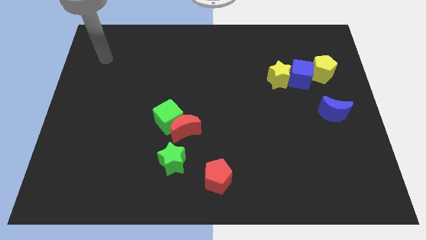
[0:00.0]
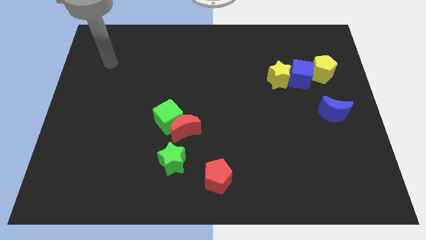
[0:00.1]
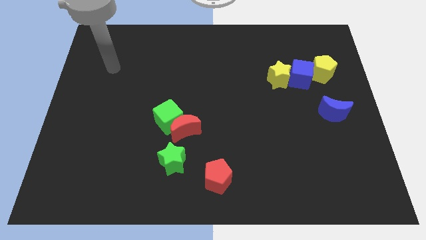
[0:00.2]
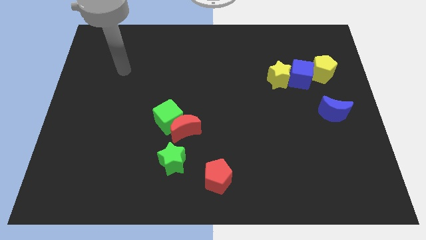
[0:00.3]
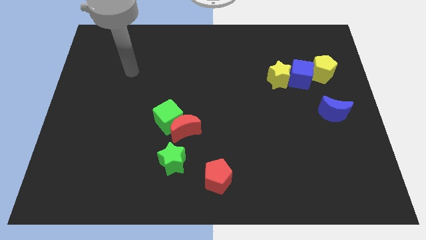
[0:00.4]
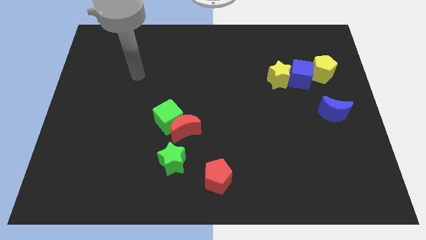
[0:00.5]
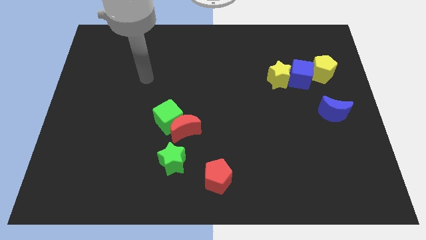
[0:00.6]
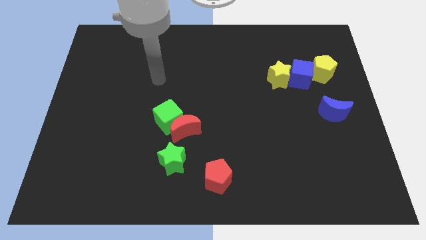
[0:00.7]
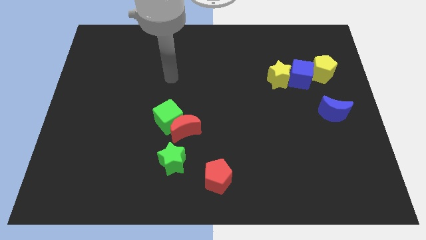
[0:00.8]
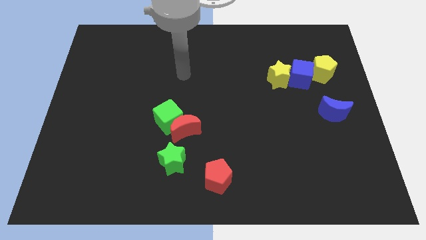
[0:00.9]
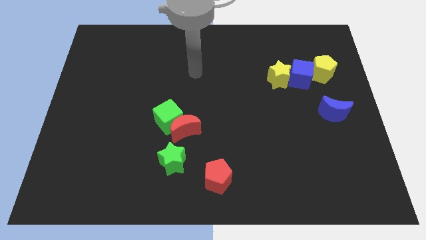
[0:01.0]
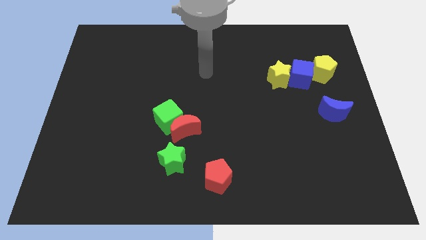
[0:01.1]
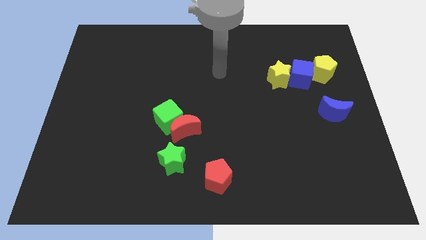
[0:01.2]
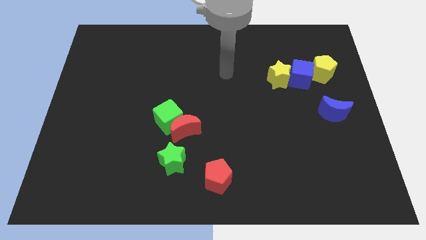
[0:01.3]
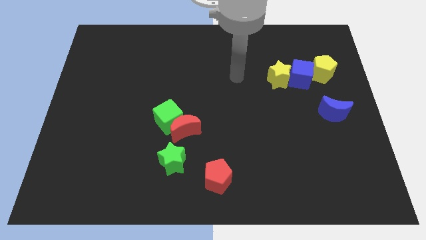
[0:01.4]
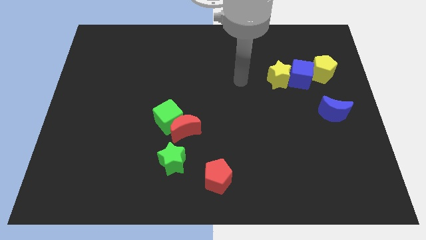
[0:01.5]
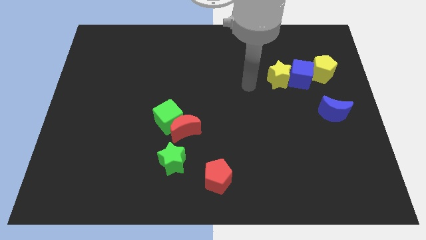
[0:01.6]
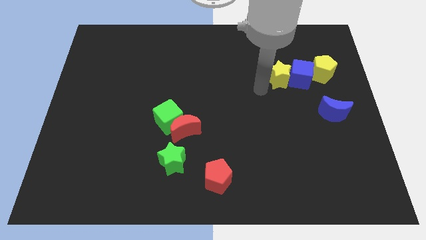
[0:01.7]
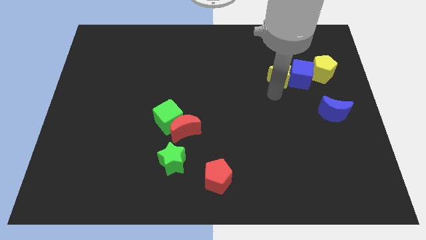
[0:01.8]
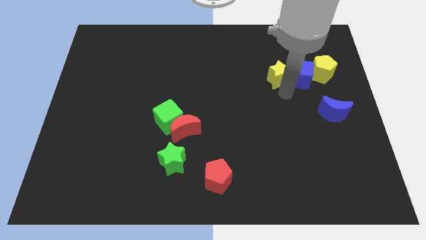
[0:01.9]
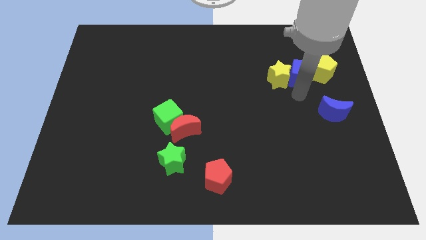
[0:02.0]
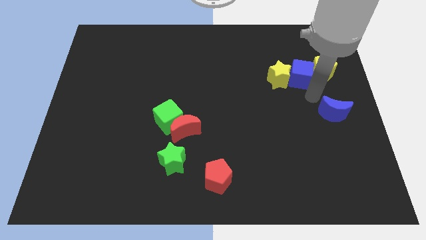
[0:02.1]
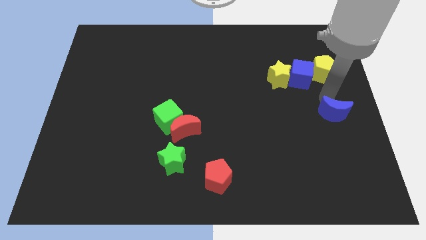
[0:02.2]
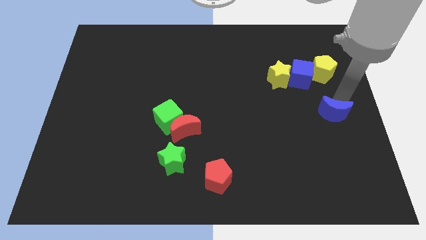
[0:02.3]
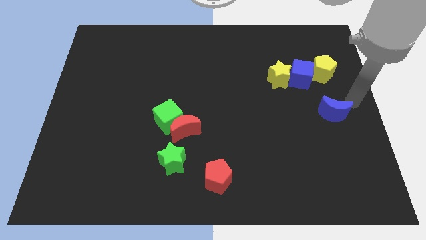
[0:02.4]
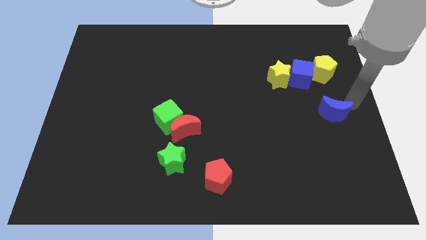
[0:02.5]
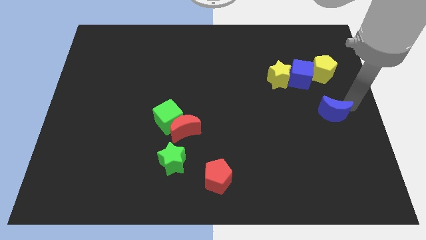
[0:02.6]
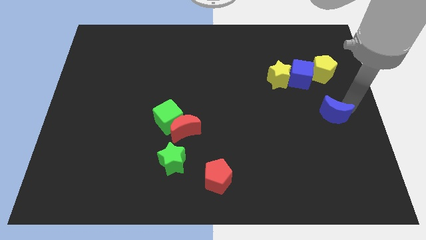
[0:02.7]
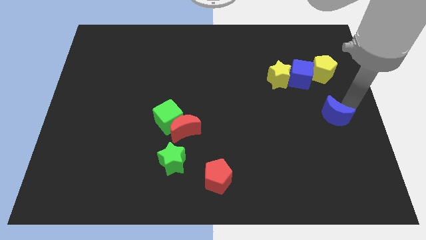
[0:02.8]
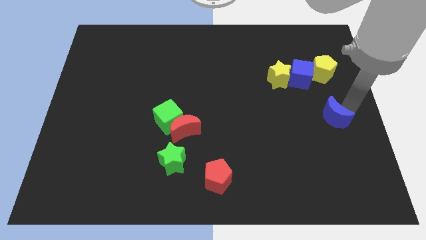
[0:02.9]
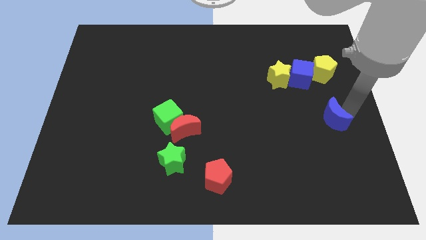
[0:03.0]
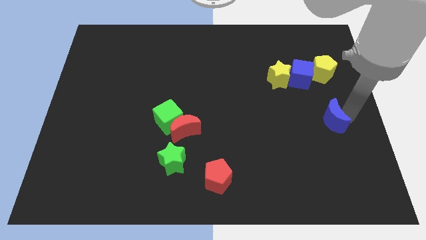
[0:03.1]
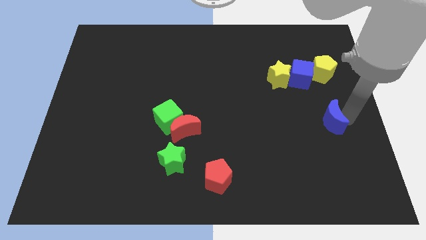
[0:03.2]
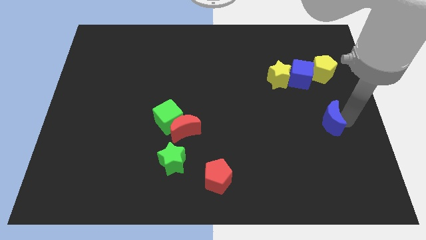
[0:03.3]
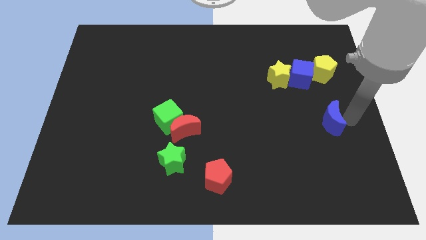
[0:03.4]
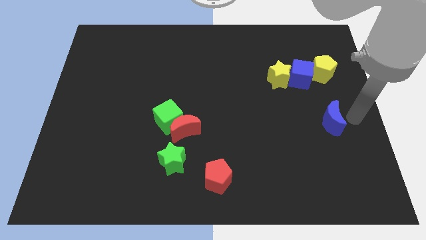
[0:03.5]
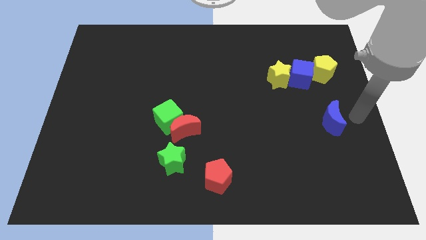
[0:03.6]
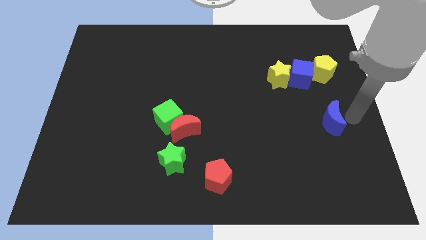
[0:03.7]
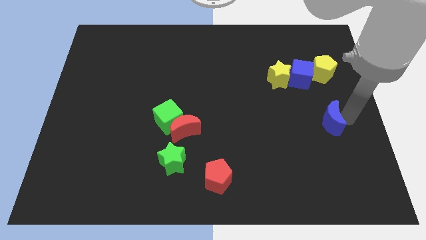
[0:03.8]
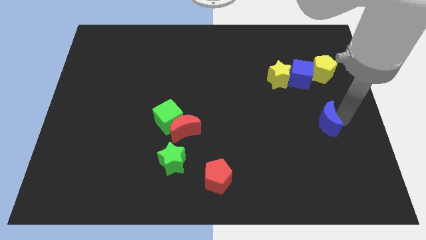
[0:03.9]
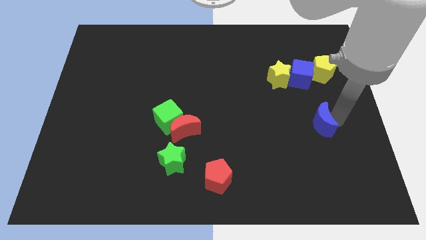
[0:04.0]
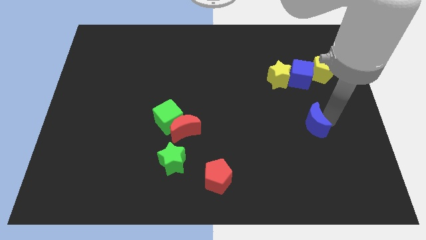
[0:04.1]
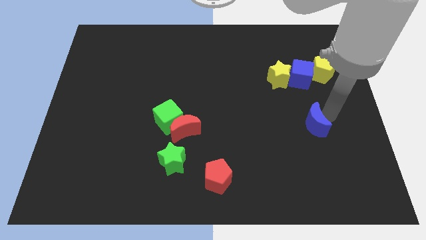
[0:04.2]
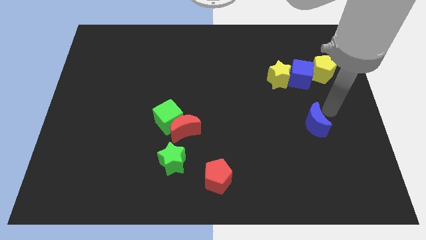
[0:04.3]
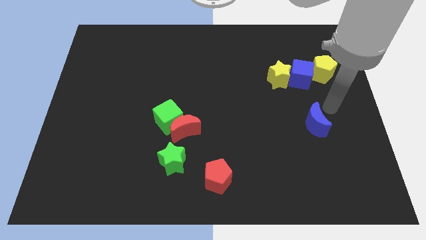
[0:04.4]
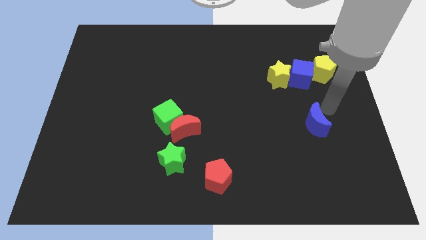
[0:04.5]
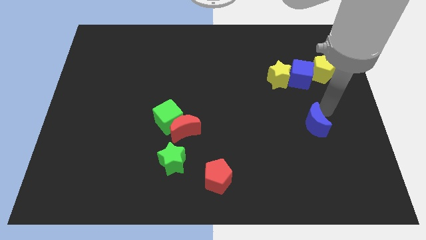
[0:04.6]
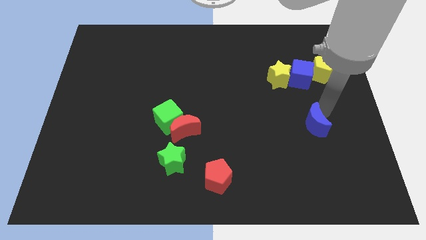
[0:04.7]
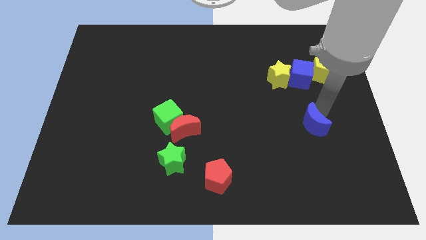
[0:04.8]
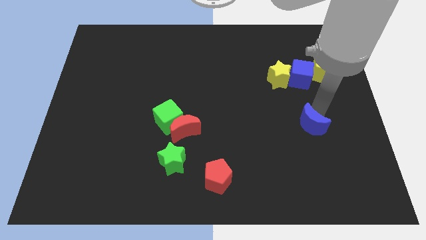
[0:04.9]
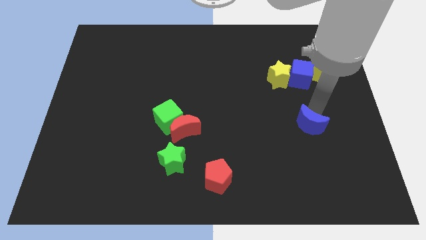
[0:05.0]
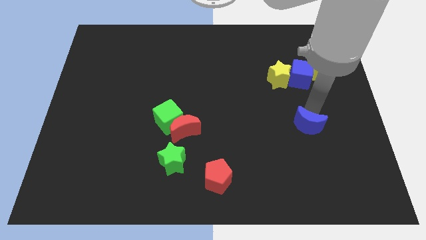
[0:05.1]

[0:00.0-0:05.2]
push the blue moon a little bit diagonally down and left

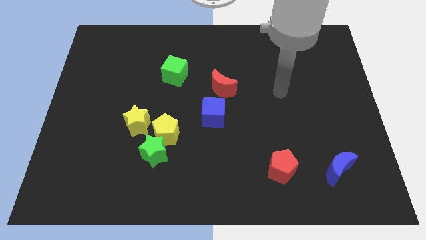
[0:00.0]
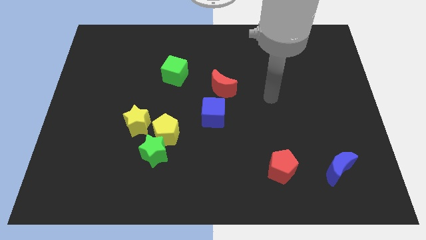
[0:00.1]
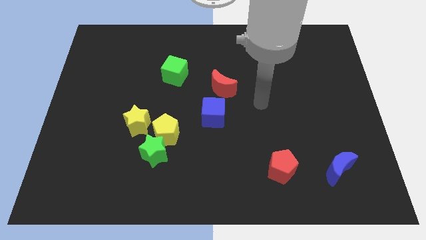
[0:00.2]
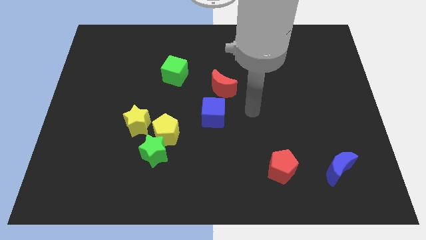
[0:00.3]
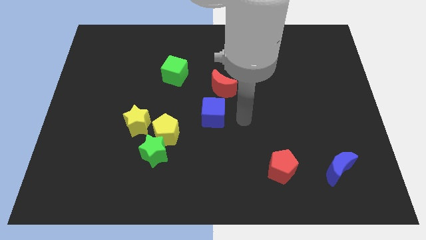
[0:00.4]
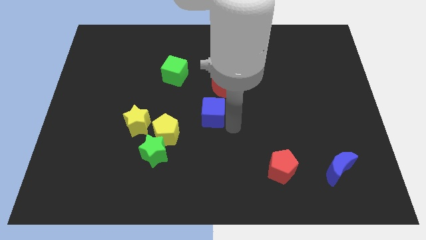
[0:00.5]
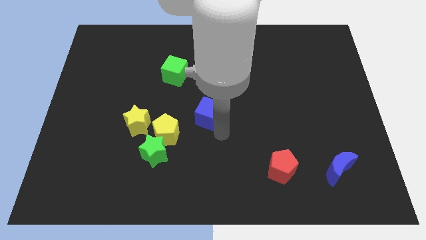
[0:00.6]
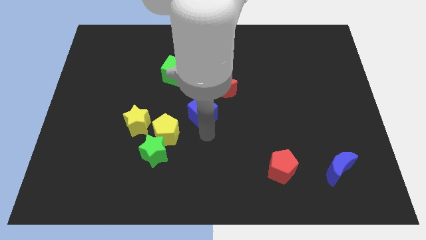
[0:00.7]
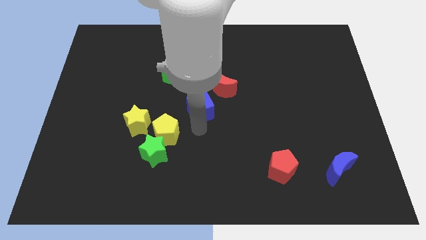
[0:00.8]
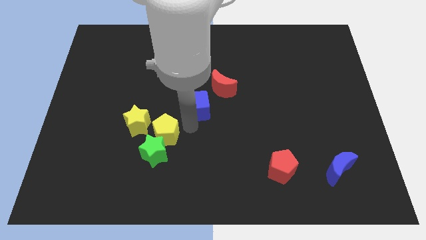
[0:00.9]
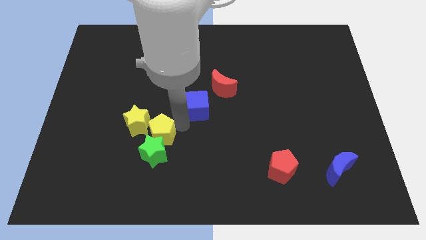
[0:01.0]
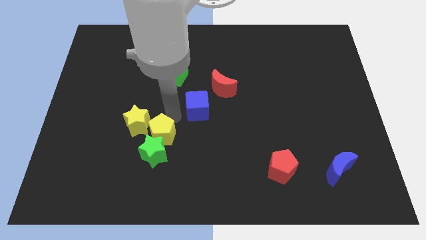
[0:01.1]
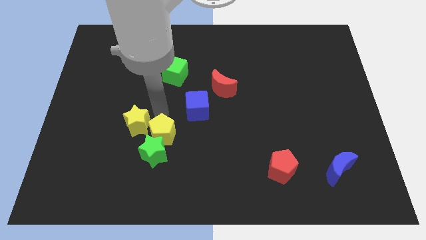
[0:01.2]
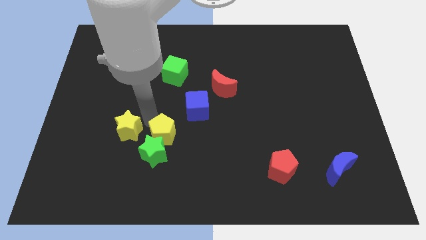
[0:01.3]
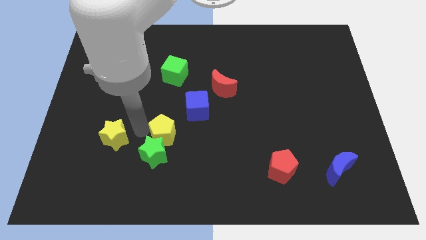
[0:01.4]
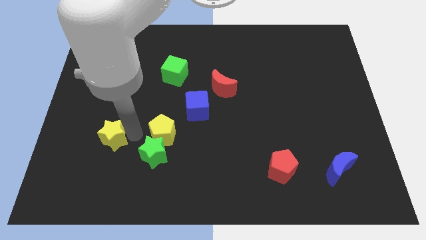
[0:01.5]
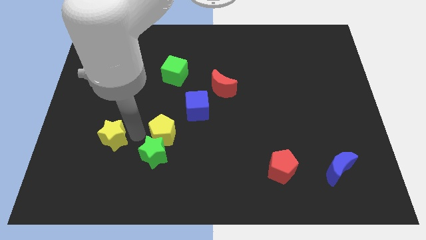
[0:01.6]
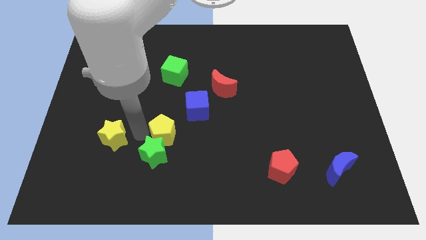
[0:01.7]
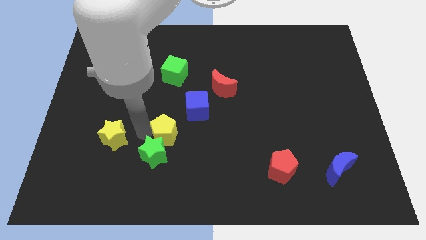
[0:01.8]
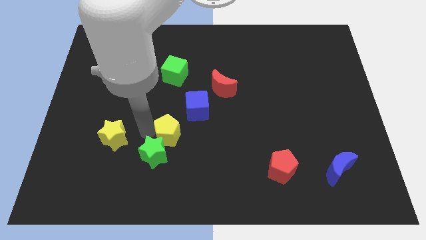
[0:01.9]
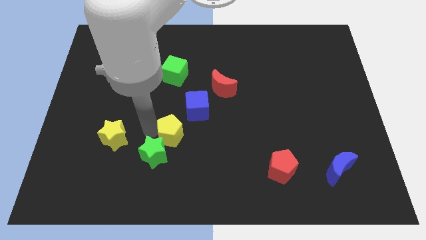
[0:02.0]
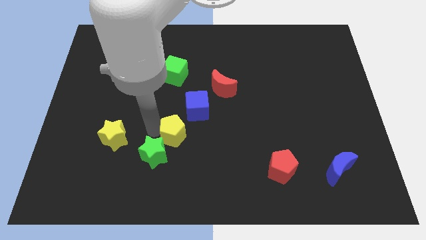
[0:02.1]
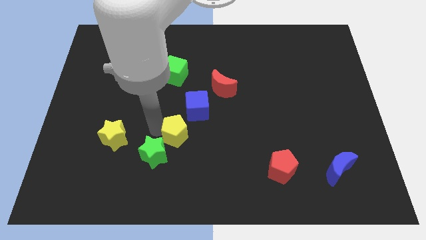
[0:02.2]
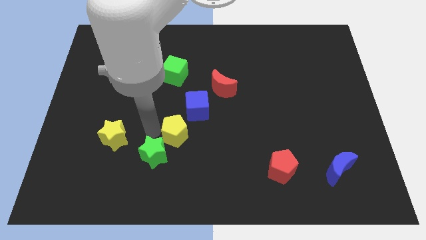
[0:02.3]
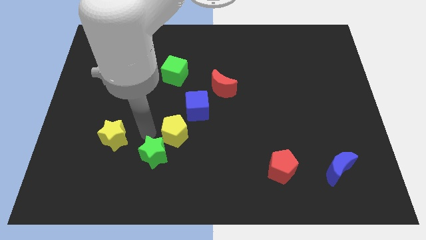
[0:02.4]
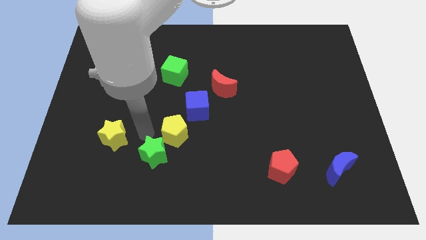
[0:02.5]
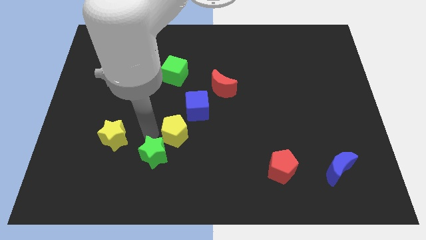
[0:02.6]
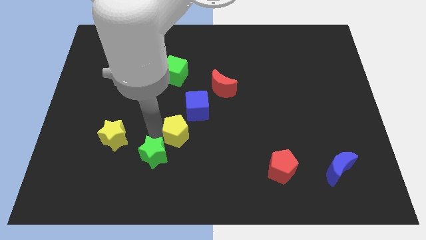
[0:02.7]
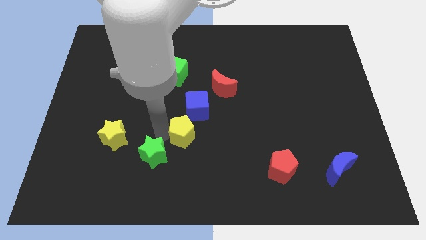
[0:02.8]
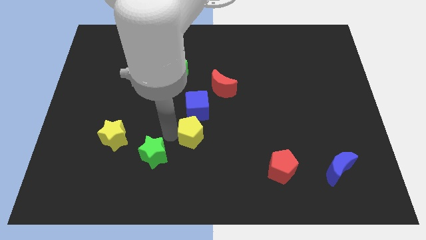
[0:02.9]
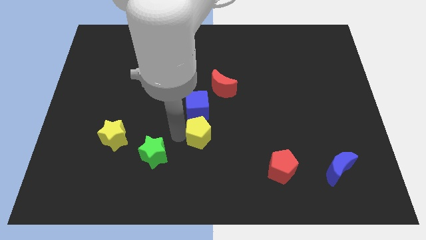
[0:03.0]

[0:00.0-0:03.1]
slide the yellow pentagon right slightly

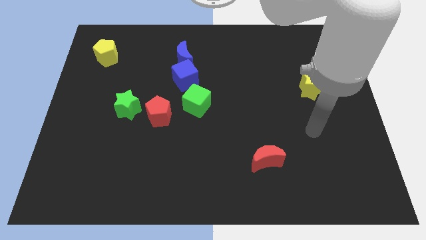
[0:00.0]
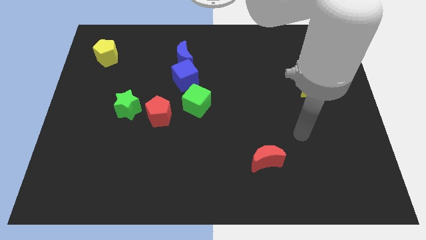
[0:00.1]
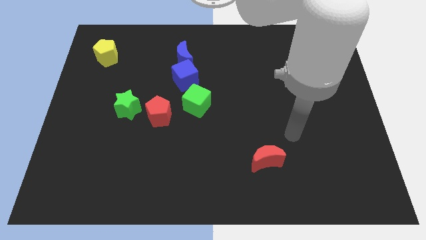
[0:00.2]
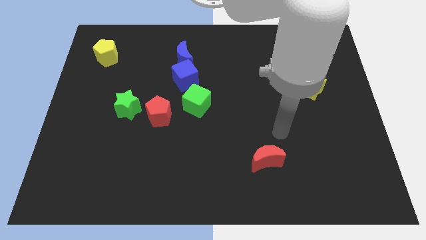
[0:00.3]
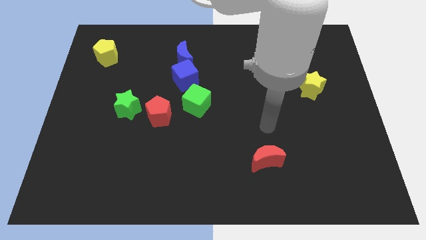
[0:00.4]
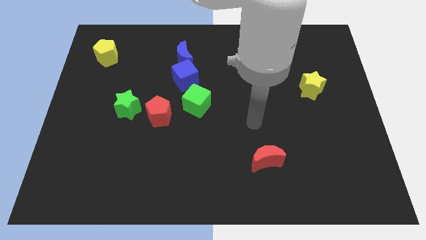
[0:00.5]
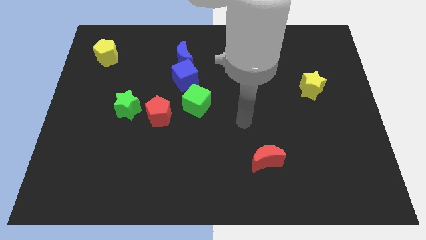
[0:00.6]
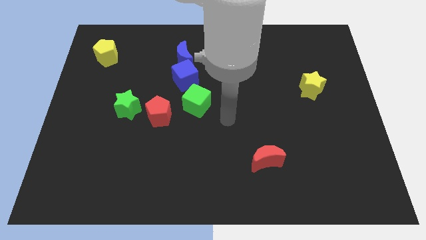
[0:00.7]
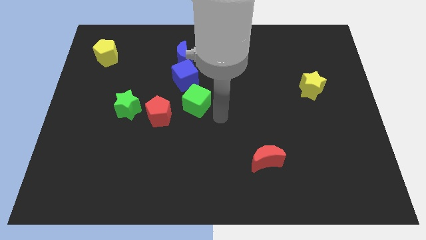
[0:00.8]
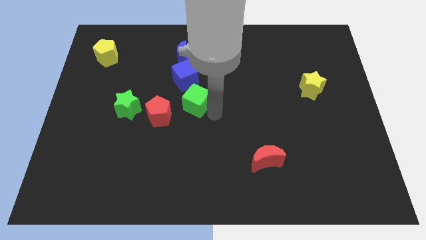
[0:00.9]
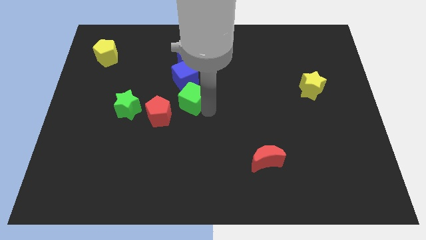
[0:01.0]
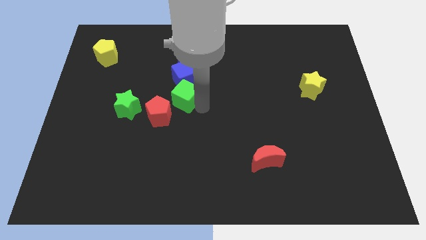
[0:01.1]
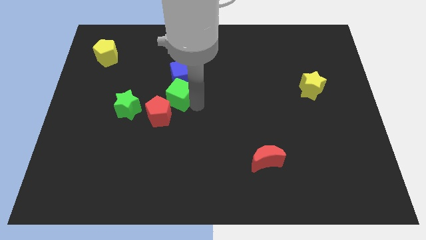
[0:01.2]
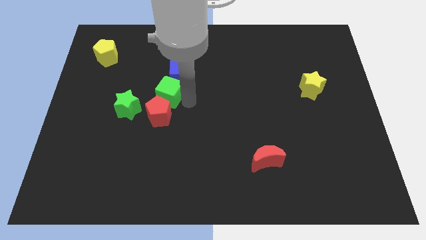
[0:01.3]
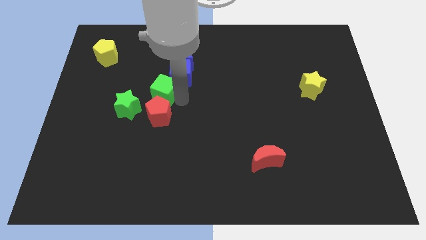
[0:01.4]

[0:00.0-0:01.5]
slide the green cube upwards and left slightly
